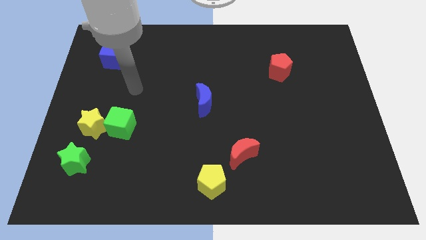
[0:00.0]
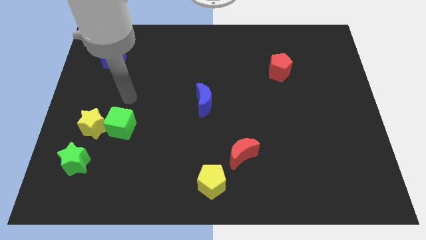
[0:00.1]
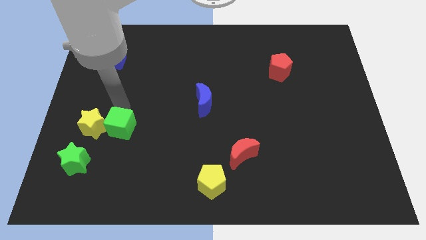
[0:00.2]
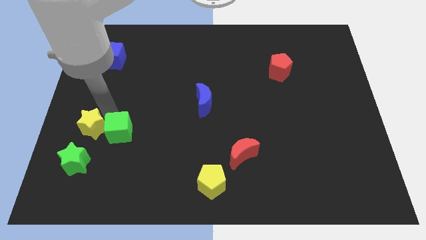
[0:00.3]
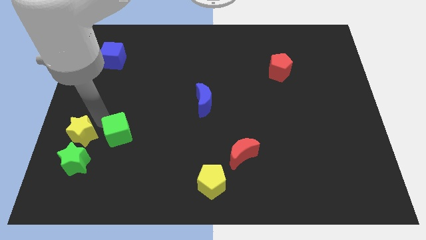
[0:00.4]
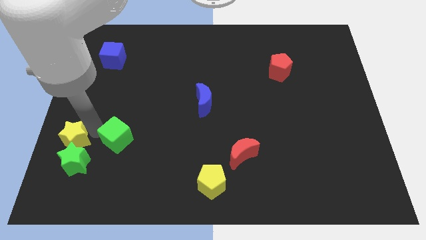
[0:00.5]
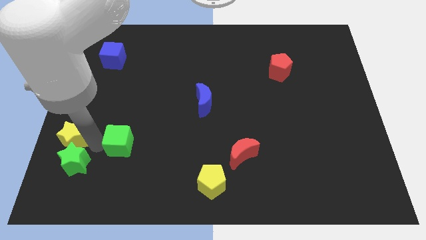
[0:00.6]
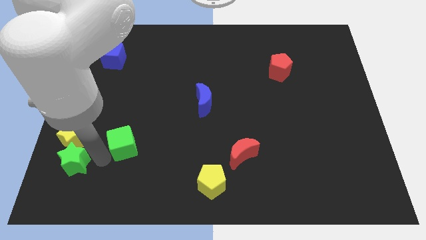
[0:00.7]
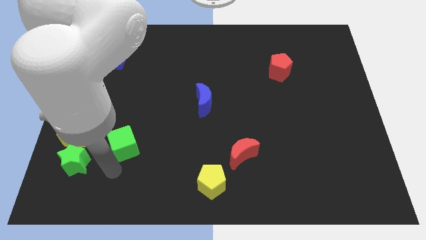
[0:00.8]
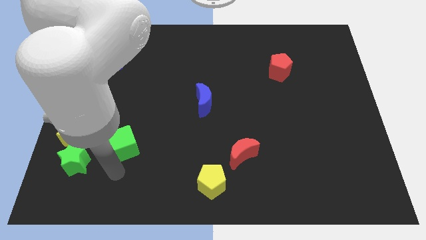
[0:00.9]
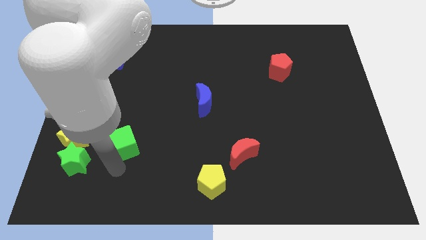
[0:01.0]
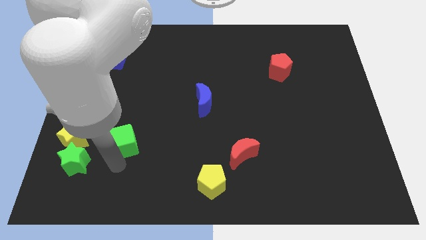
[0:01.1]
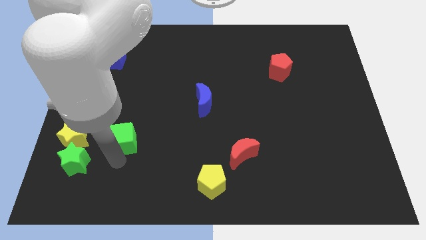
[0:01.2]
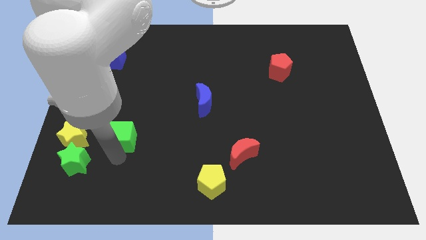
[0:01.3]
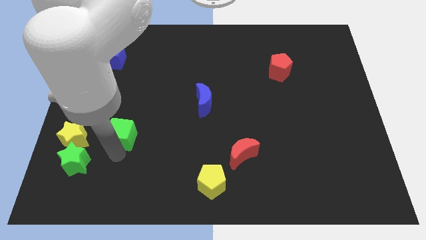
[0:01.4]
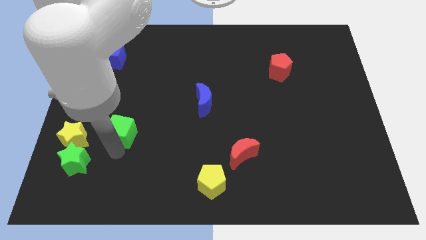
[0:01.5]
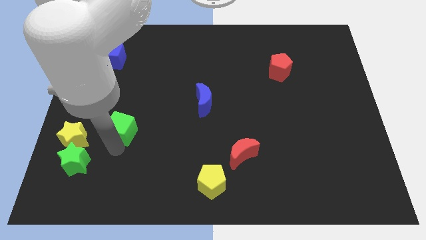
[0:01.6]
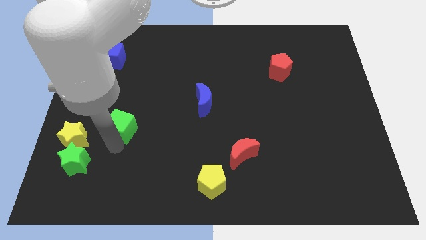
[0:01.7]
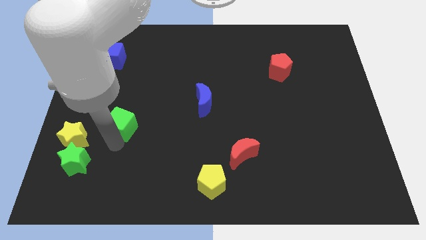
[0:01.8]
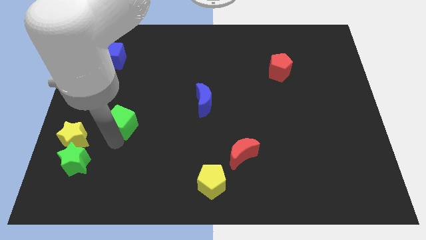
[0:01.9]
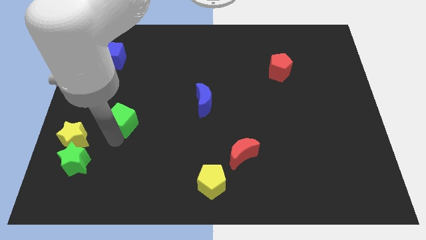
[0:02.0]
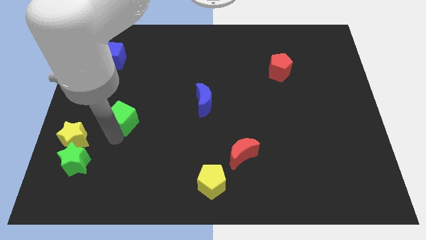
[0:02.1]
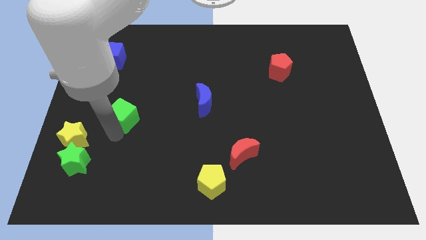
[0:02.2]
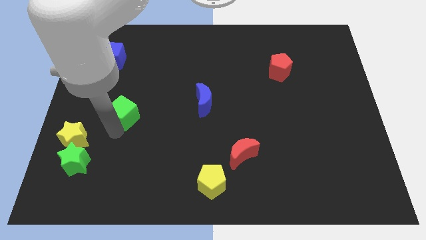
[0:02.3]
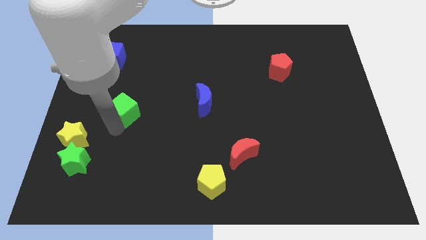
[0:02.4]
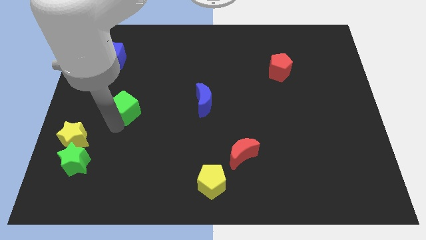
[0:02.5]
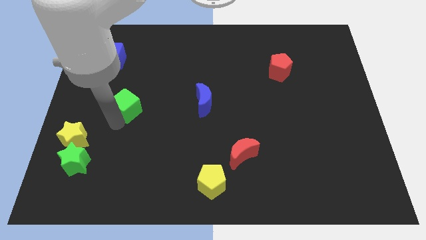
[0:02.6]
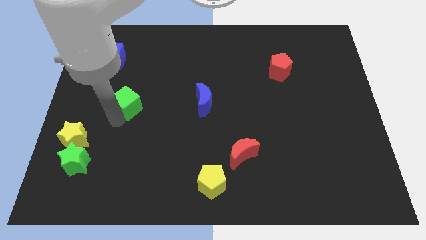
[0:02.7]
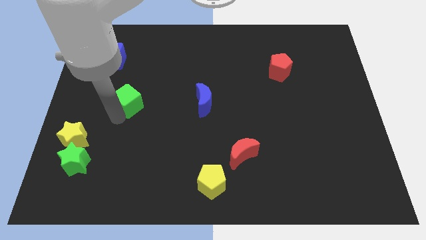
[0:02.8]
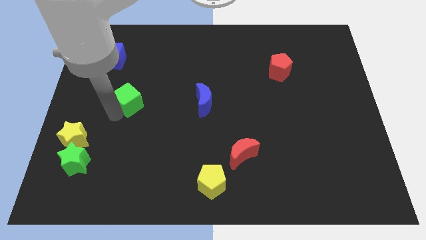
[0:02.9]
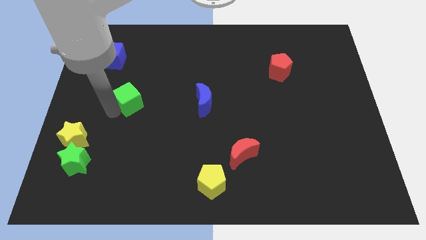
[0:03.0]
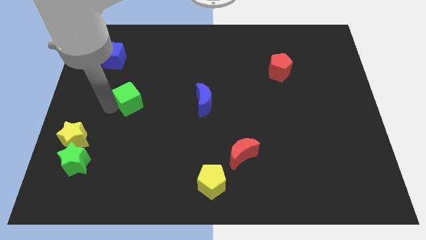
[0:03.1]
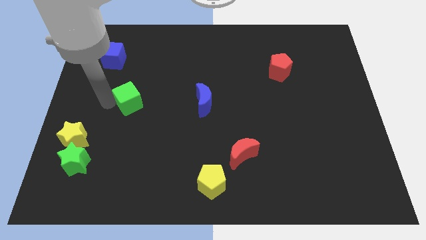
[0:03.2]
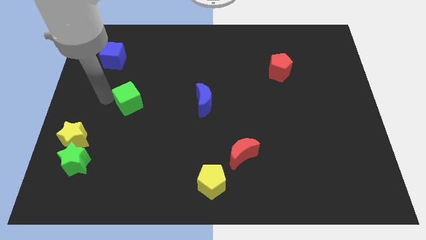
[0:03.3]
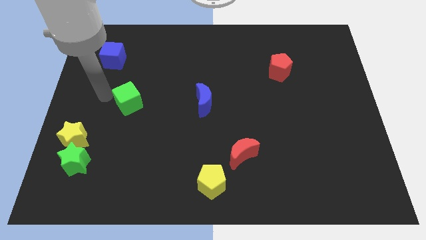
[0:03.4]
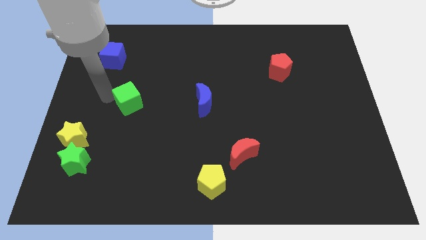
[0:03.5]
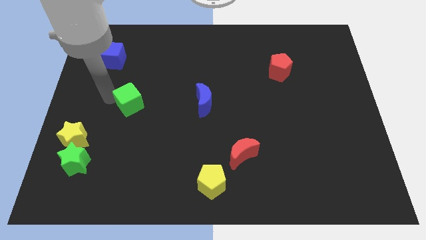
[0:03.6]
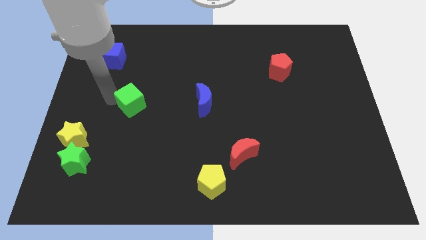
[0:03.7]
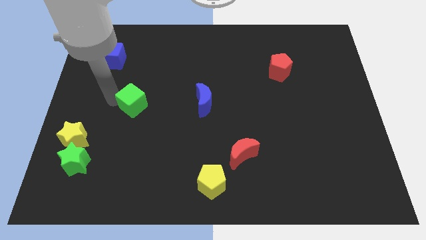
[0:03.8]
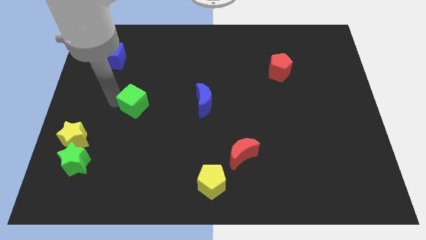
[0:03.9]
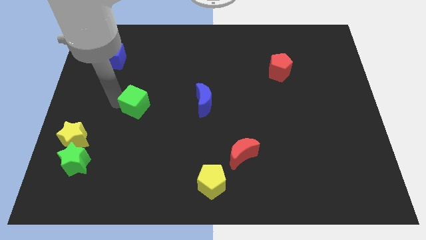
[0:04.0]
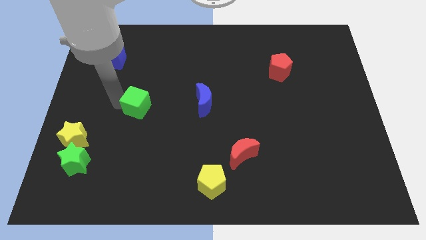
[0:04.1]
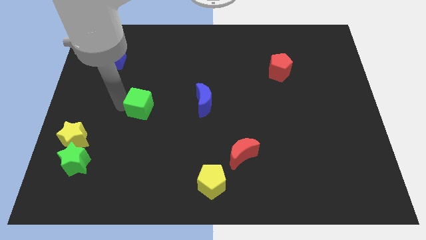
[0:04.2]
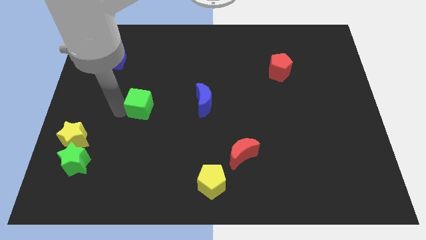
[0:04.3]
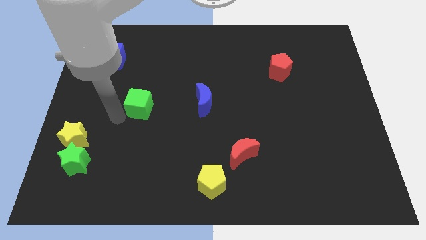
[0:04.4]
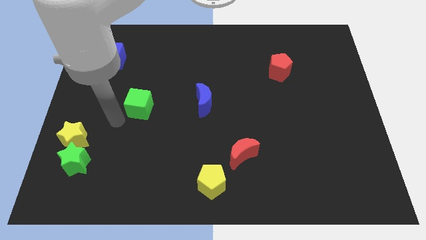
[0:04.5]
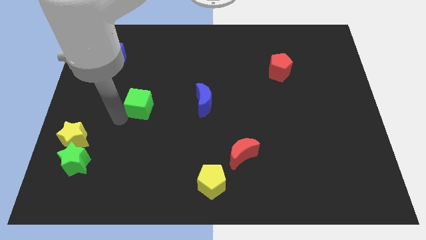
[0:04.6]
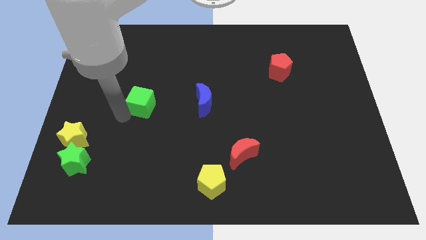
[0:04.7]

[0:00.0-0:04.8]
move the green cube diagonally upwards and right a bit

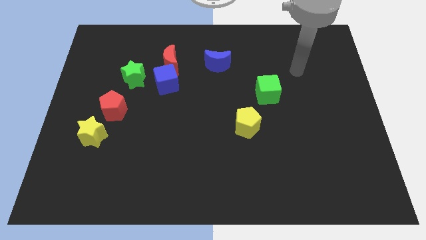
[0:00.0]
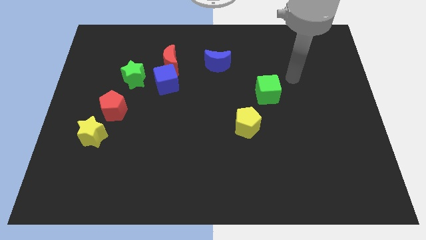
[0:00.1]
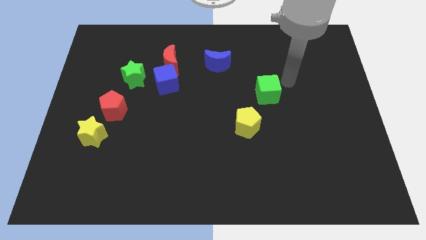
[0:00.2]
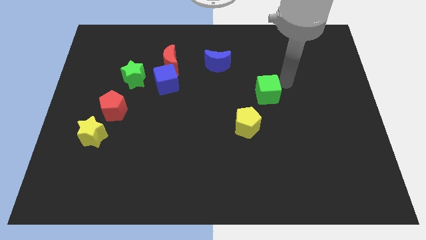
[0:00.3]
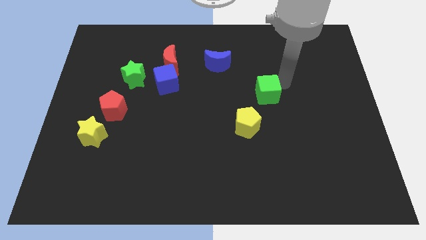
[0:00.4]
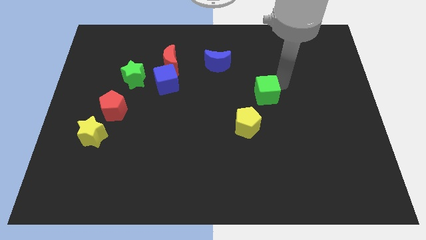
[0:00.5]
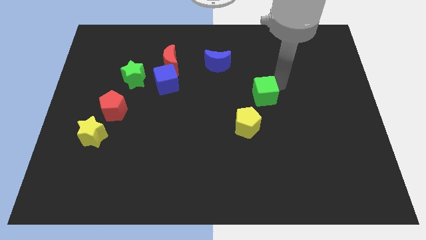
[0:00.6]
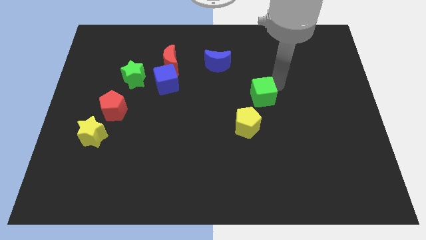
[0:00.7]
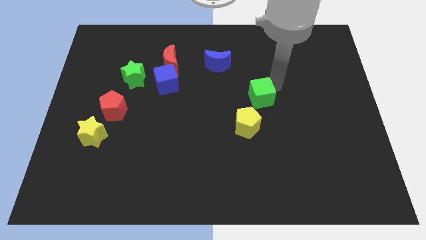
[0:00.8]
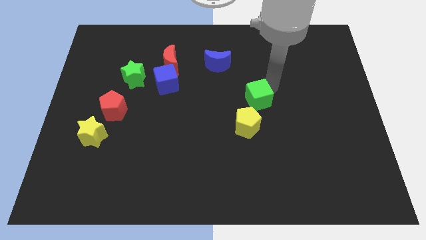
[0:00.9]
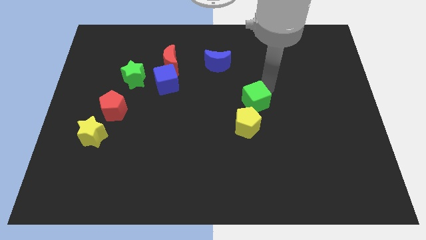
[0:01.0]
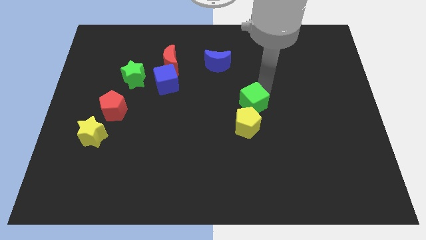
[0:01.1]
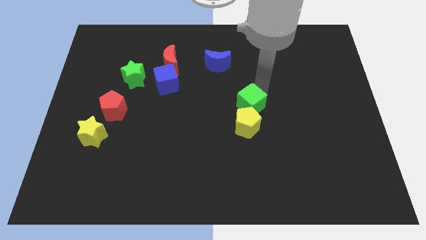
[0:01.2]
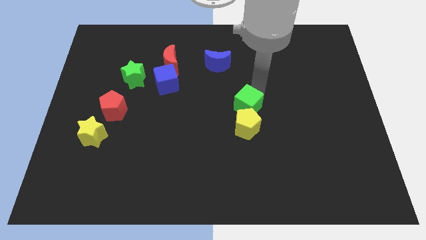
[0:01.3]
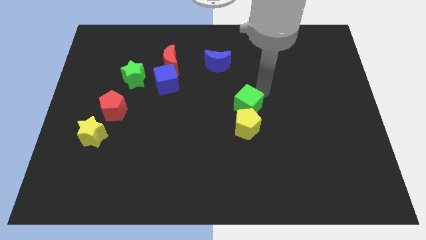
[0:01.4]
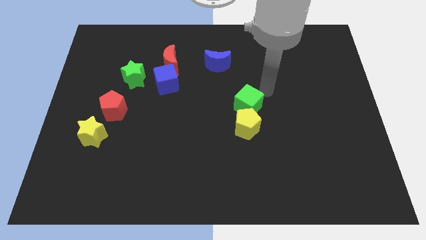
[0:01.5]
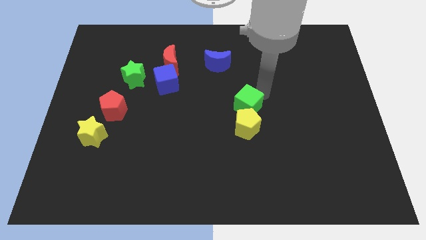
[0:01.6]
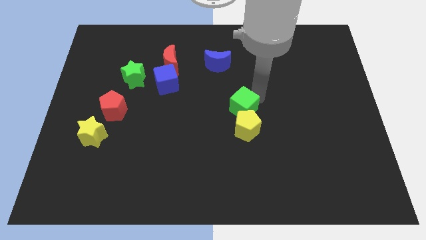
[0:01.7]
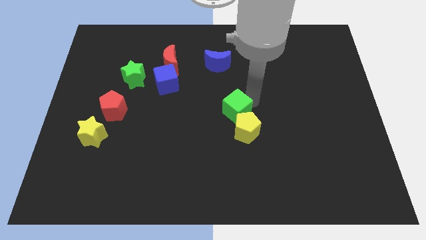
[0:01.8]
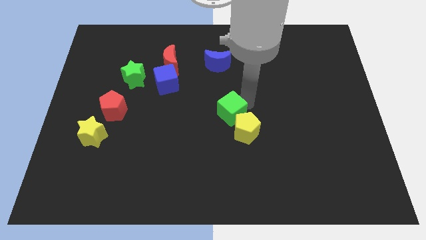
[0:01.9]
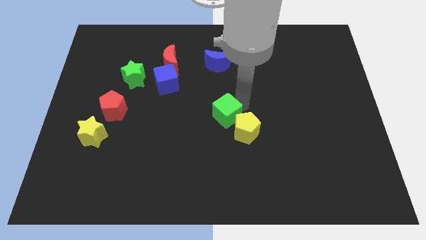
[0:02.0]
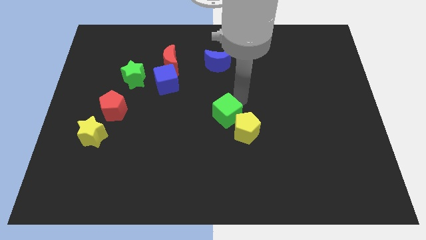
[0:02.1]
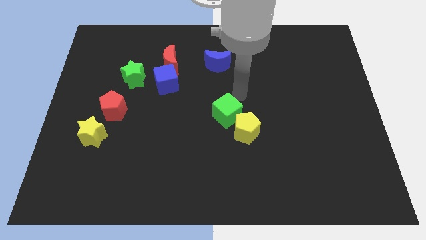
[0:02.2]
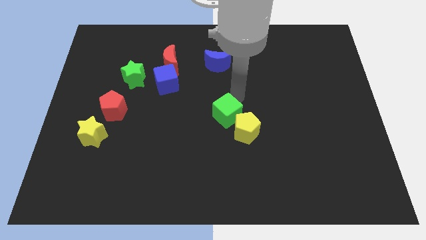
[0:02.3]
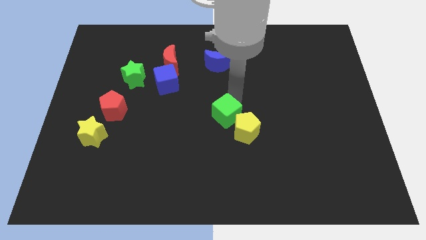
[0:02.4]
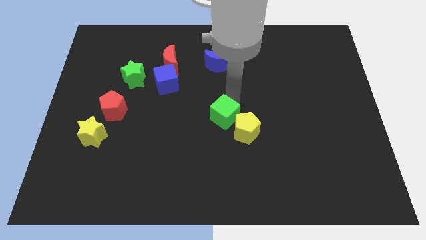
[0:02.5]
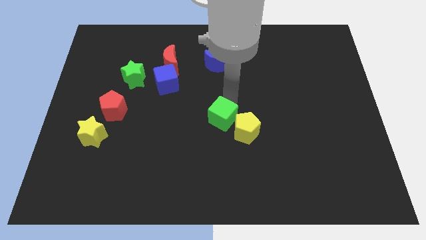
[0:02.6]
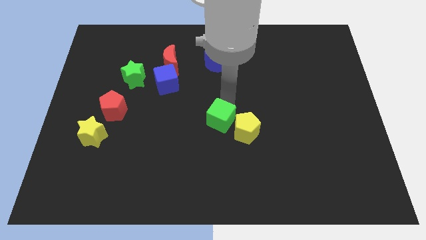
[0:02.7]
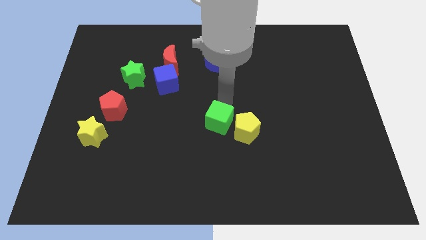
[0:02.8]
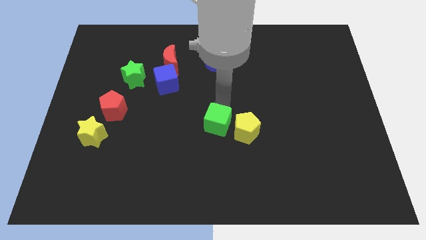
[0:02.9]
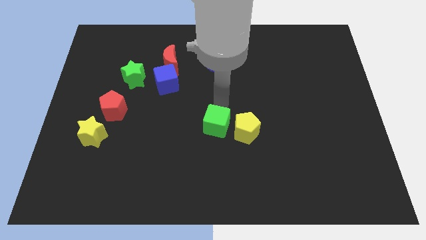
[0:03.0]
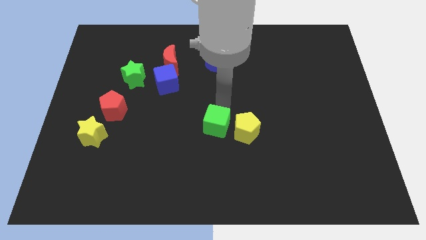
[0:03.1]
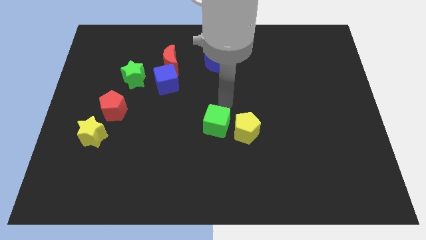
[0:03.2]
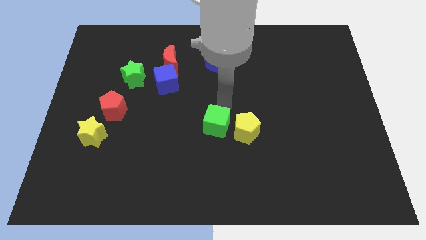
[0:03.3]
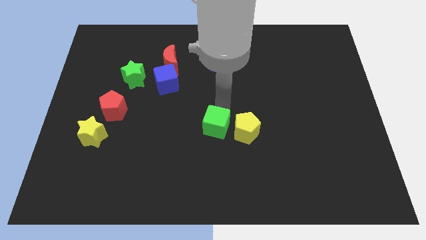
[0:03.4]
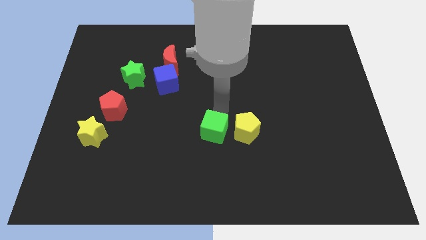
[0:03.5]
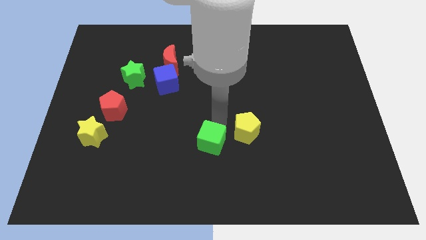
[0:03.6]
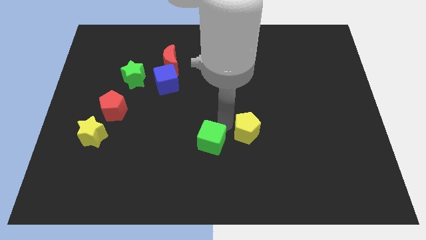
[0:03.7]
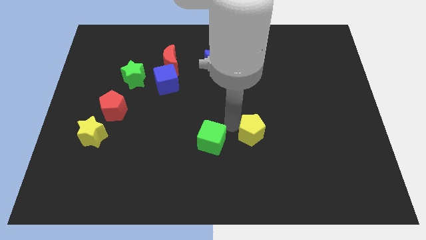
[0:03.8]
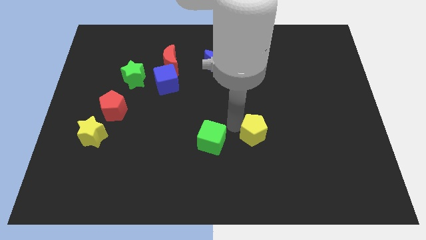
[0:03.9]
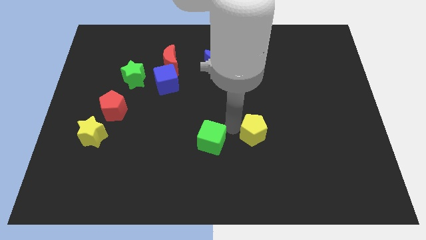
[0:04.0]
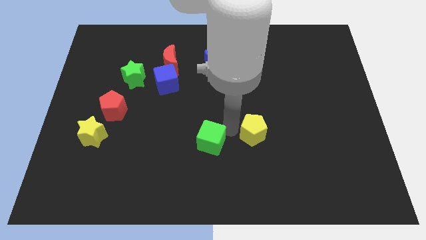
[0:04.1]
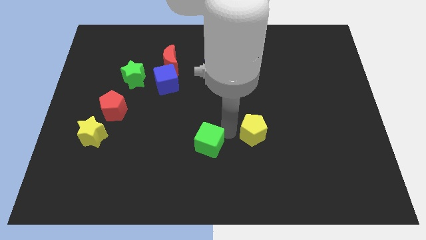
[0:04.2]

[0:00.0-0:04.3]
push the green cube down and to the left
